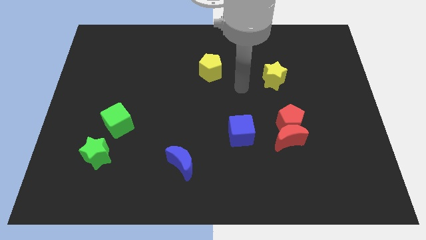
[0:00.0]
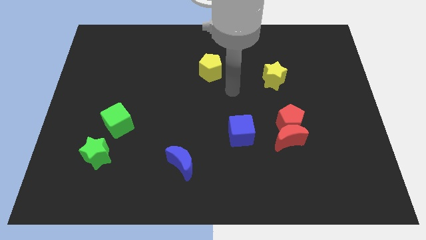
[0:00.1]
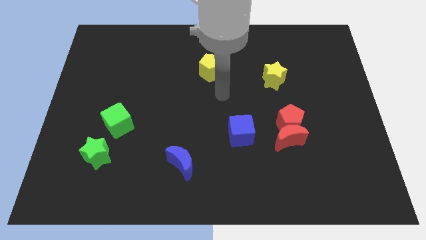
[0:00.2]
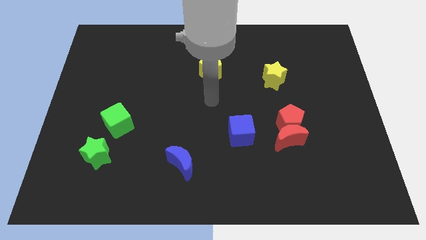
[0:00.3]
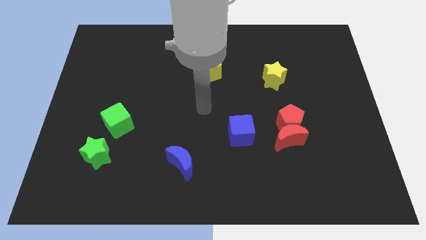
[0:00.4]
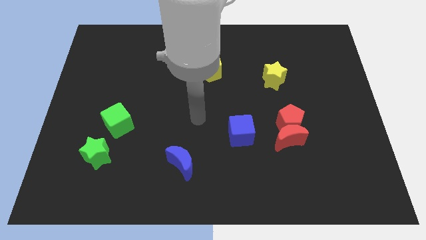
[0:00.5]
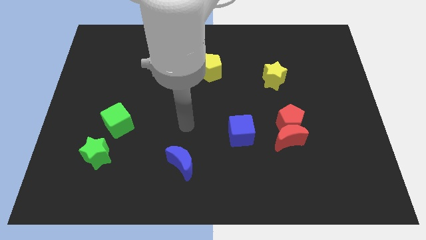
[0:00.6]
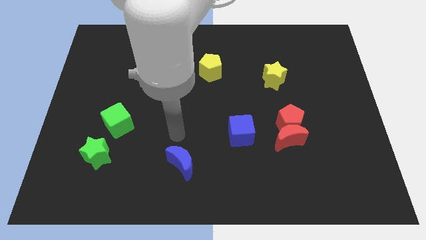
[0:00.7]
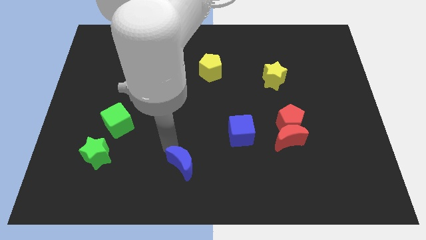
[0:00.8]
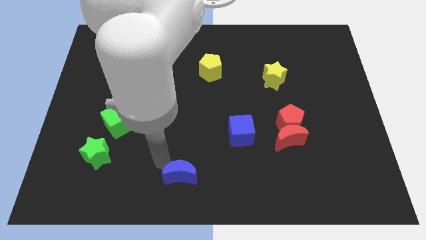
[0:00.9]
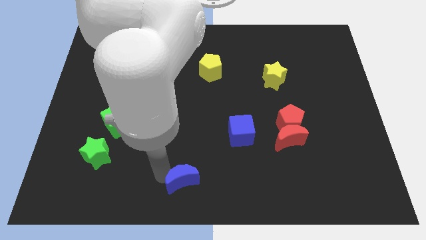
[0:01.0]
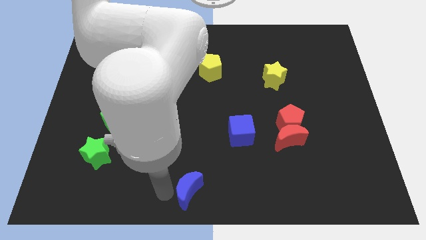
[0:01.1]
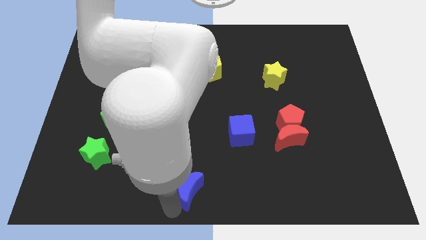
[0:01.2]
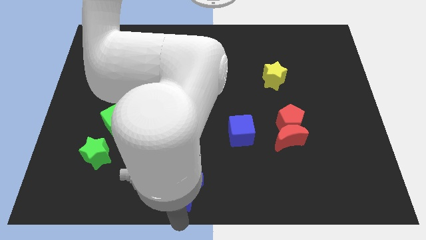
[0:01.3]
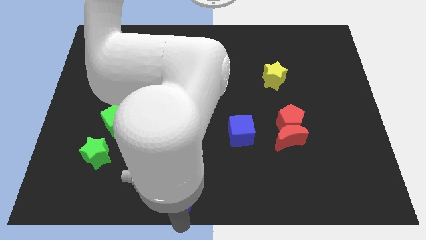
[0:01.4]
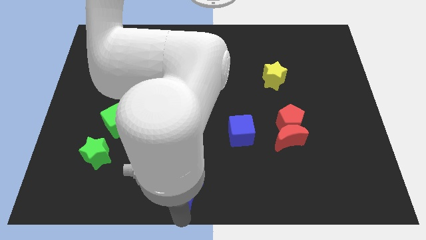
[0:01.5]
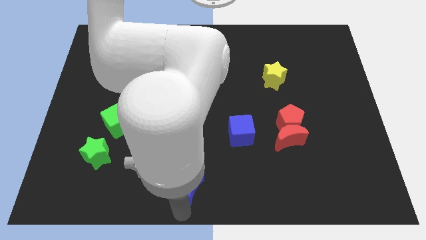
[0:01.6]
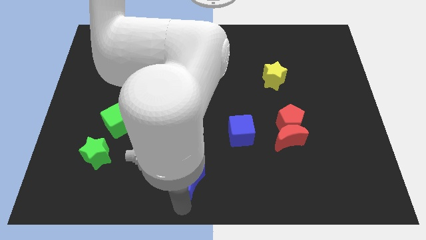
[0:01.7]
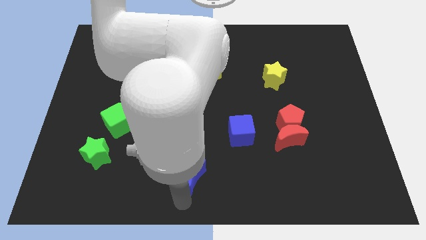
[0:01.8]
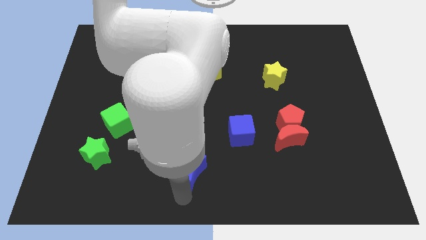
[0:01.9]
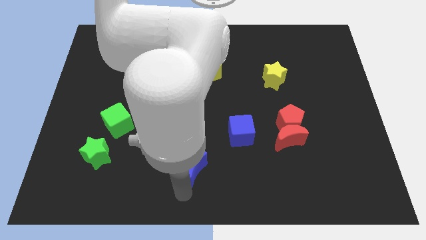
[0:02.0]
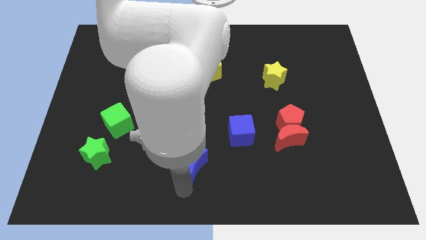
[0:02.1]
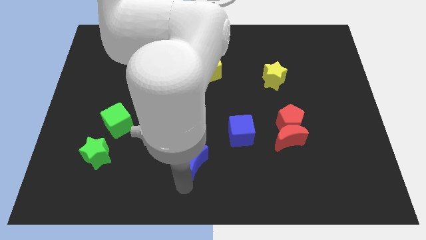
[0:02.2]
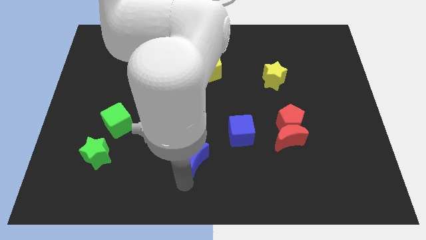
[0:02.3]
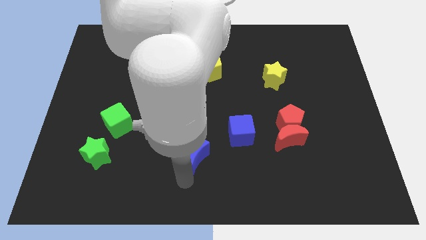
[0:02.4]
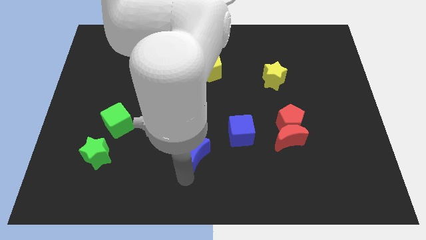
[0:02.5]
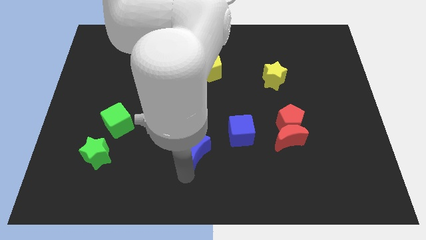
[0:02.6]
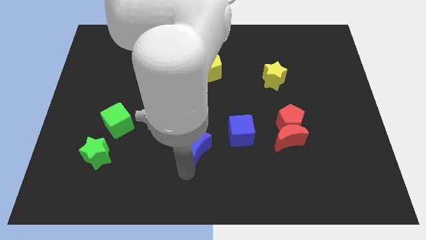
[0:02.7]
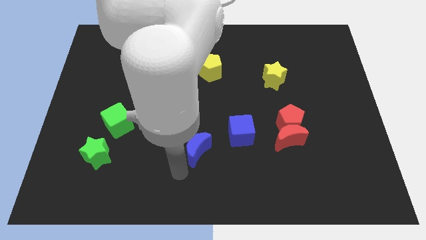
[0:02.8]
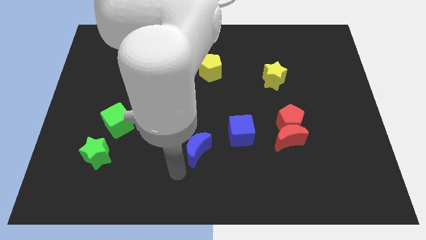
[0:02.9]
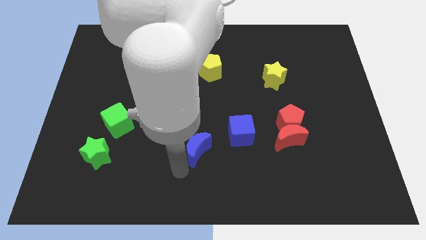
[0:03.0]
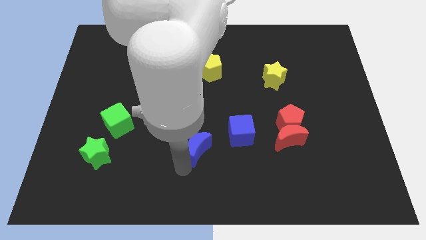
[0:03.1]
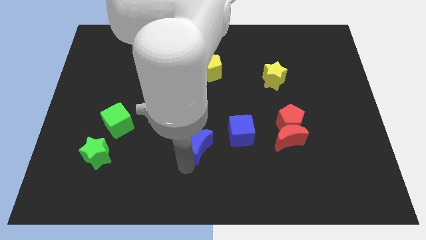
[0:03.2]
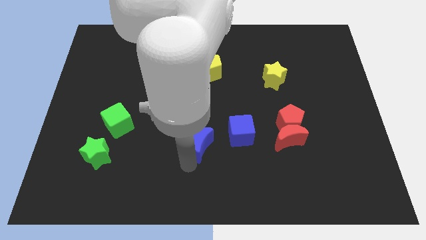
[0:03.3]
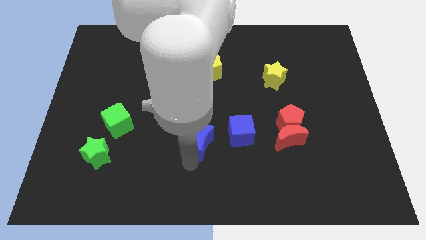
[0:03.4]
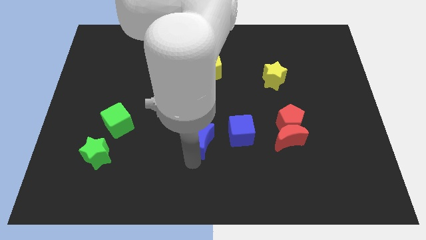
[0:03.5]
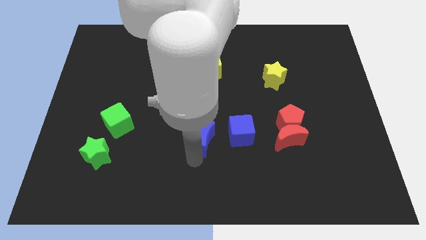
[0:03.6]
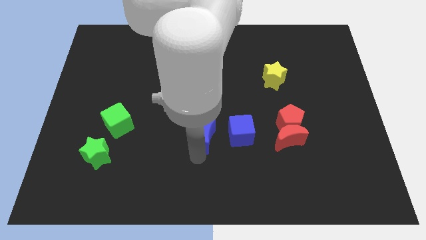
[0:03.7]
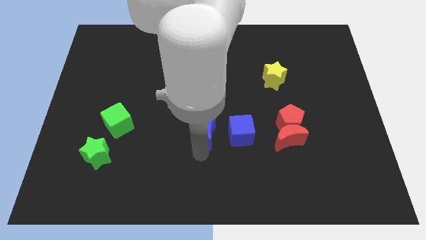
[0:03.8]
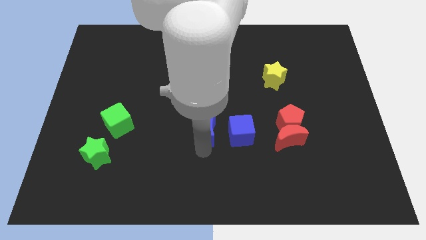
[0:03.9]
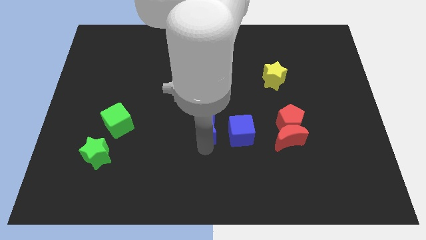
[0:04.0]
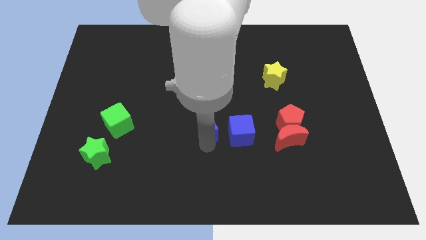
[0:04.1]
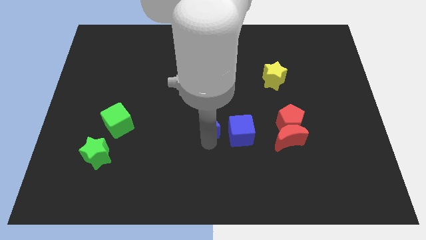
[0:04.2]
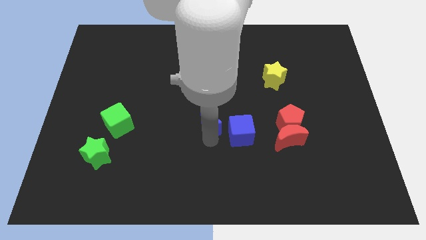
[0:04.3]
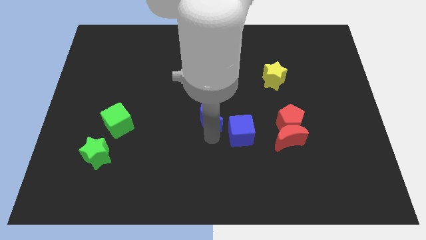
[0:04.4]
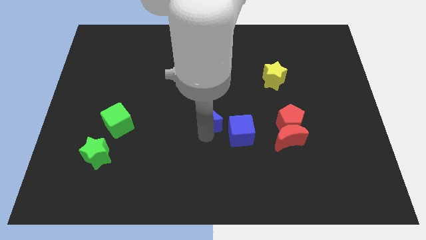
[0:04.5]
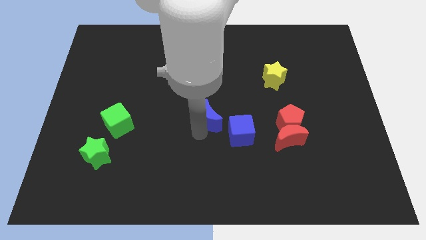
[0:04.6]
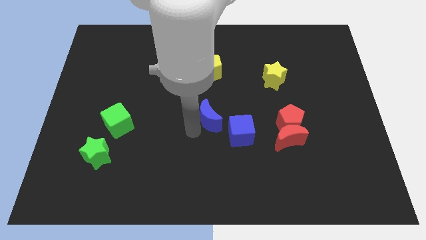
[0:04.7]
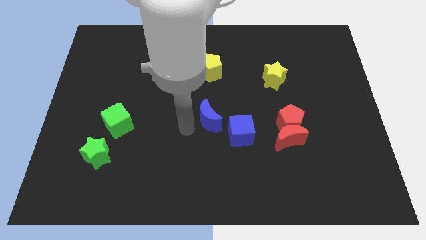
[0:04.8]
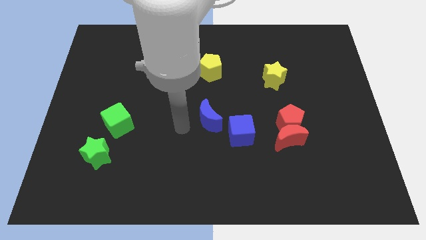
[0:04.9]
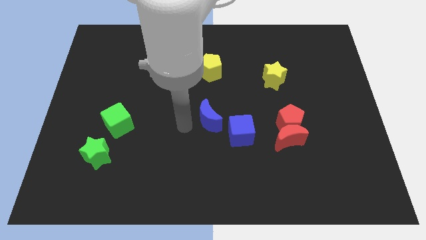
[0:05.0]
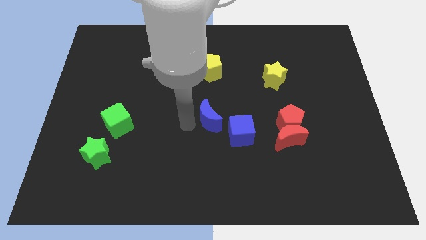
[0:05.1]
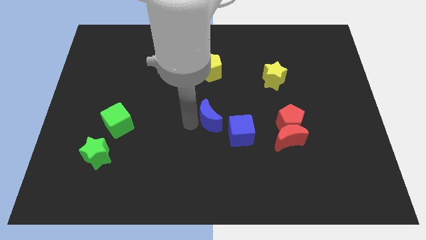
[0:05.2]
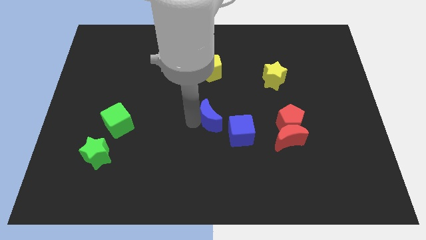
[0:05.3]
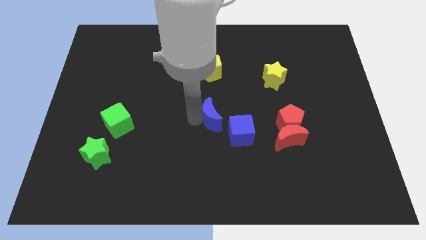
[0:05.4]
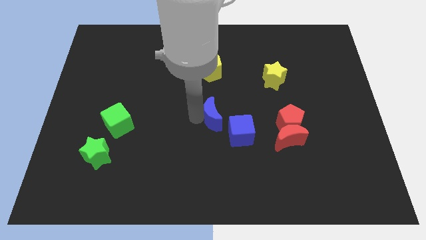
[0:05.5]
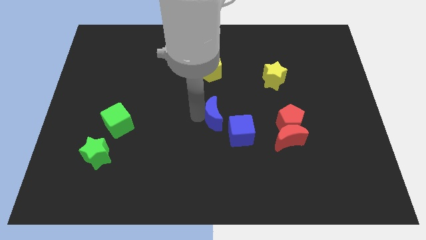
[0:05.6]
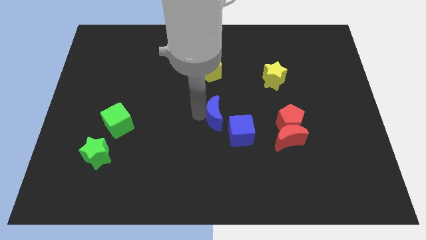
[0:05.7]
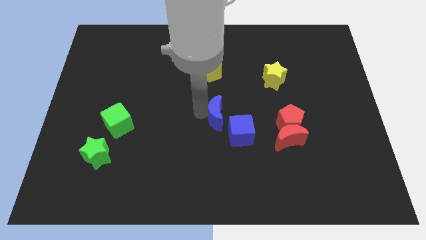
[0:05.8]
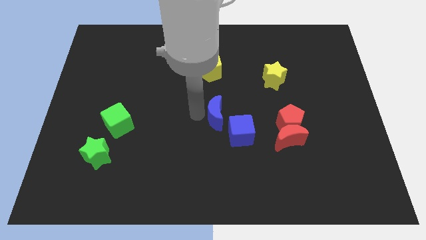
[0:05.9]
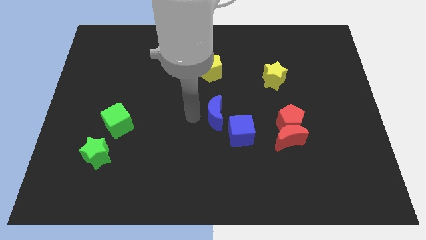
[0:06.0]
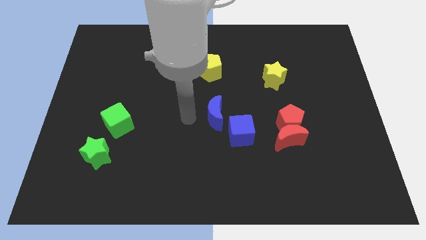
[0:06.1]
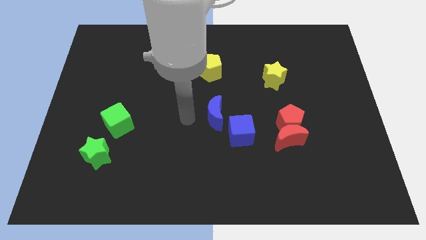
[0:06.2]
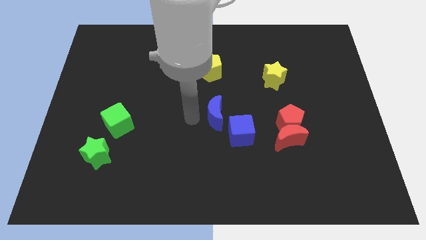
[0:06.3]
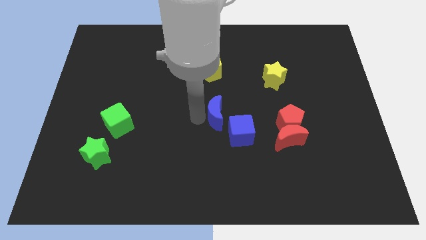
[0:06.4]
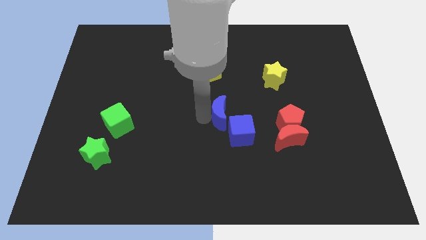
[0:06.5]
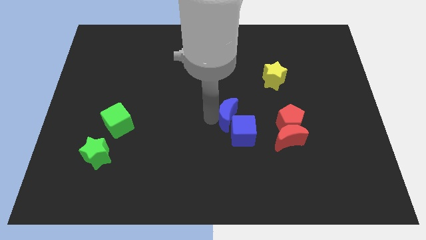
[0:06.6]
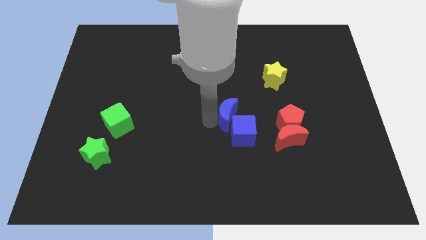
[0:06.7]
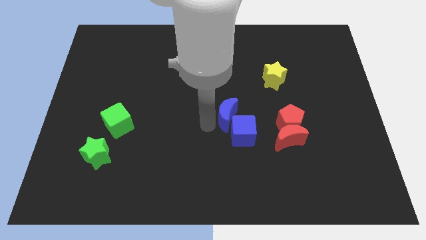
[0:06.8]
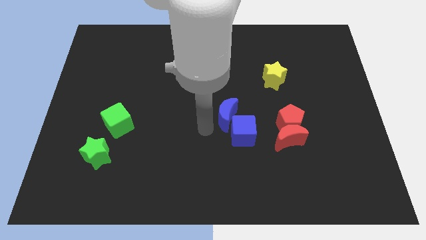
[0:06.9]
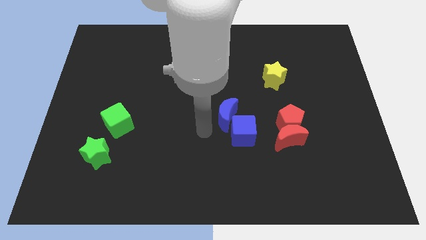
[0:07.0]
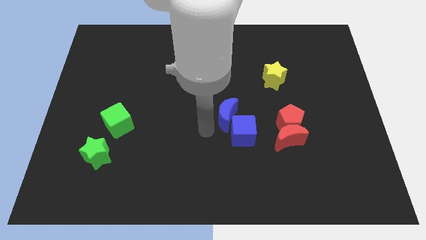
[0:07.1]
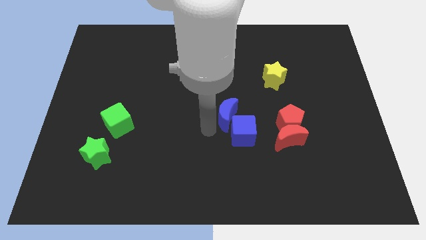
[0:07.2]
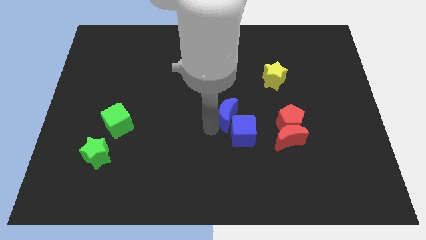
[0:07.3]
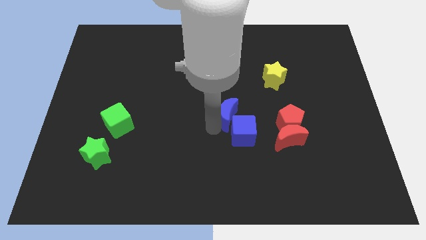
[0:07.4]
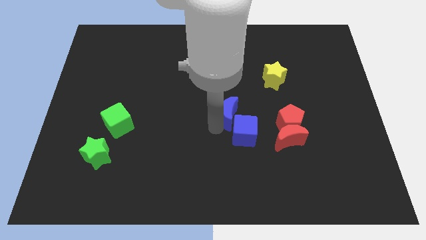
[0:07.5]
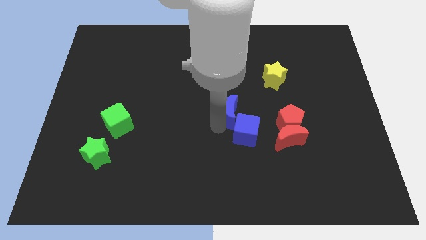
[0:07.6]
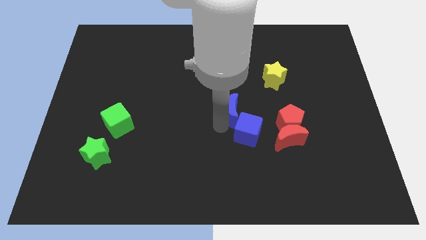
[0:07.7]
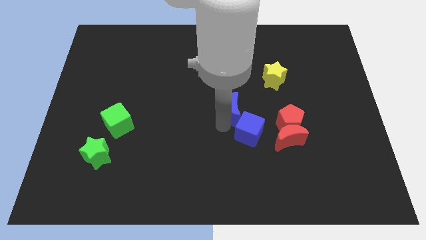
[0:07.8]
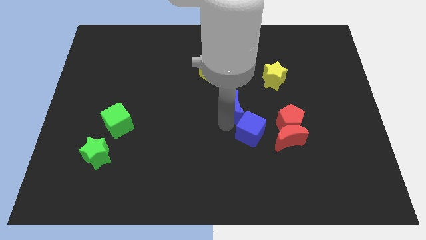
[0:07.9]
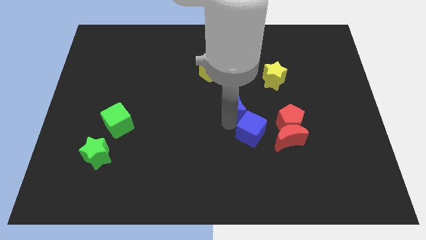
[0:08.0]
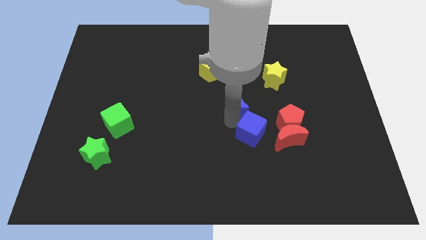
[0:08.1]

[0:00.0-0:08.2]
move the blue moon diagonally down and to the left of the yellow star
